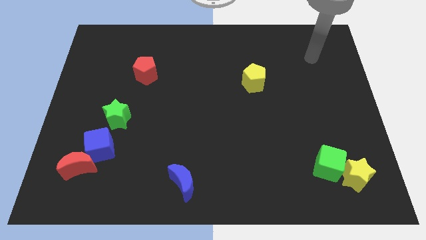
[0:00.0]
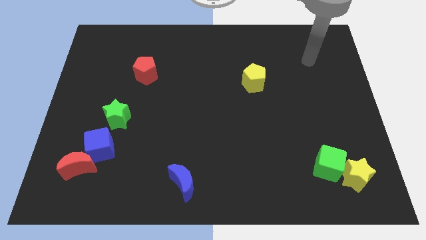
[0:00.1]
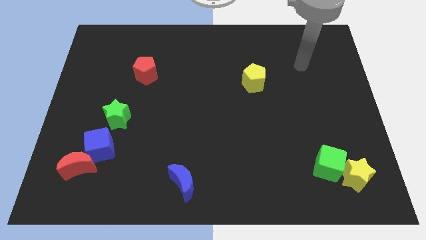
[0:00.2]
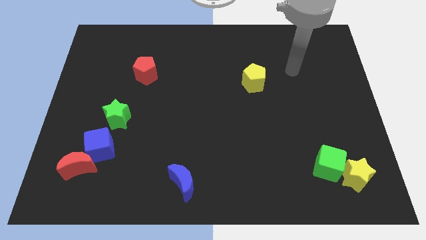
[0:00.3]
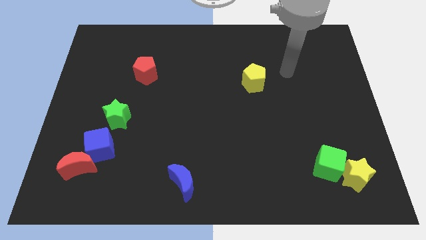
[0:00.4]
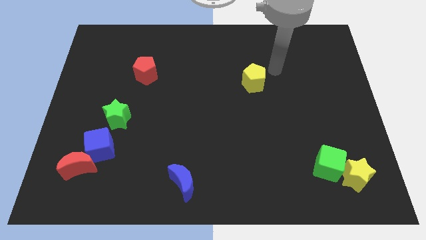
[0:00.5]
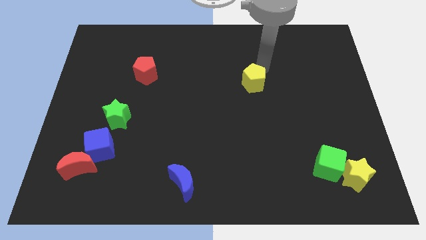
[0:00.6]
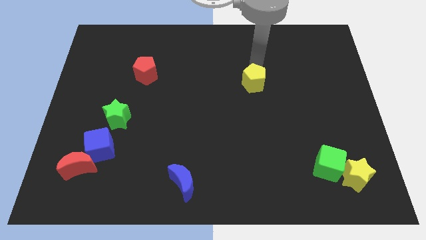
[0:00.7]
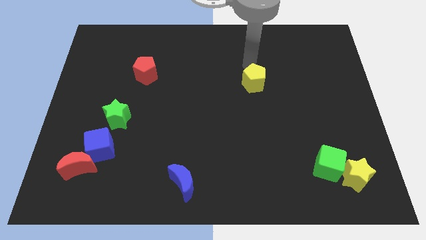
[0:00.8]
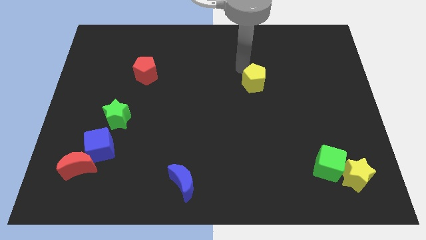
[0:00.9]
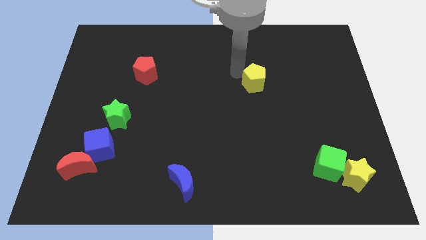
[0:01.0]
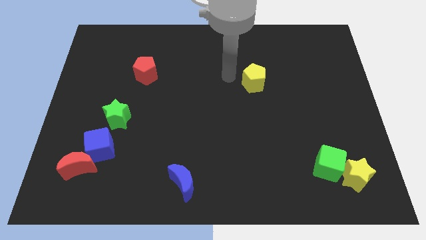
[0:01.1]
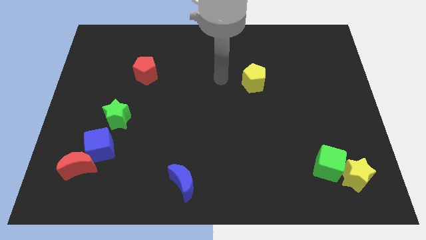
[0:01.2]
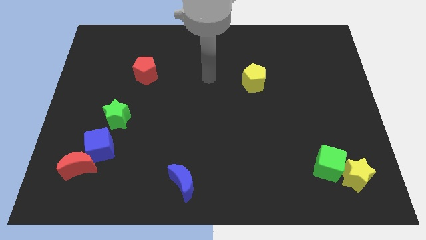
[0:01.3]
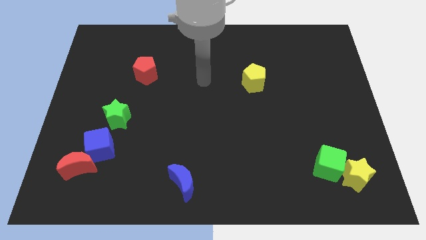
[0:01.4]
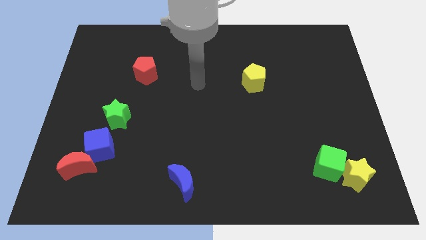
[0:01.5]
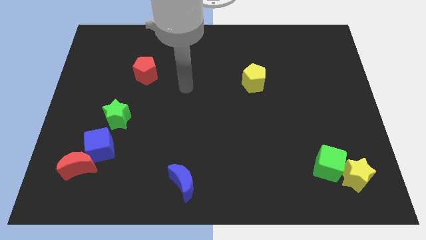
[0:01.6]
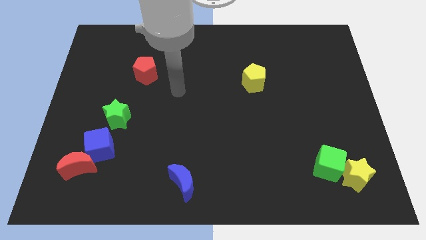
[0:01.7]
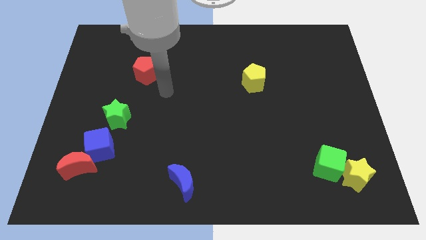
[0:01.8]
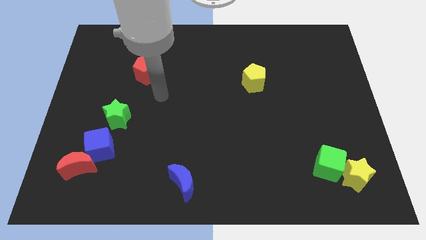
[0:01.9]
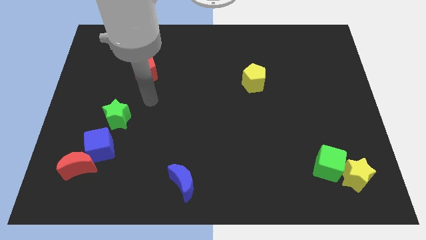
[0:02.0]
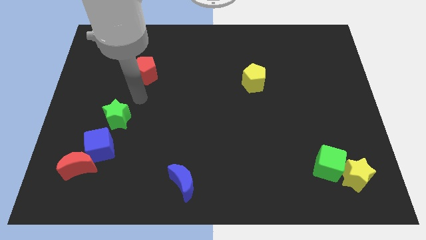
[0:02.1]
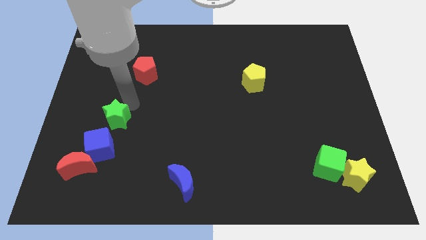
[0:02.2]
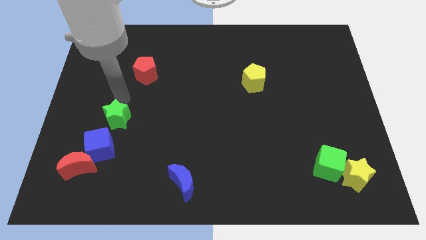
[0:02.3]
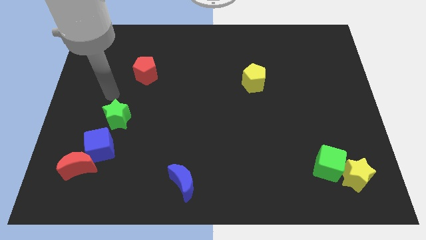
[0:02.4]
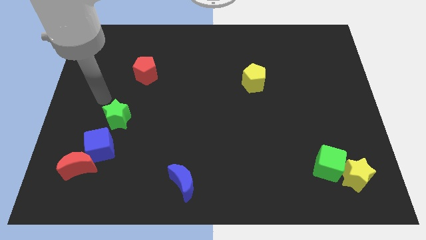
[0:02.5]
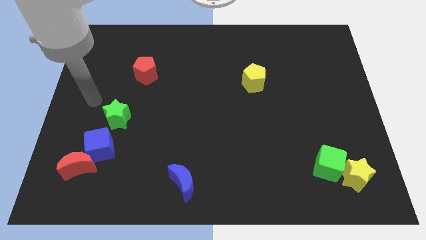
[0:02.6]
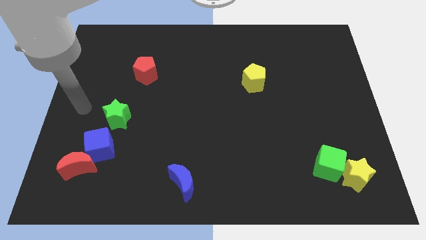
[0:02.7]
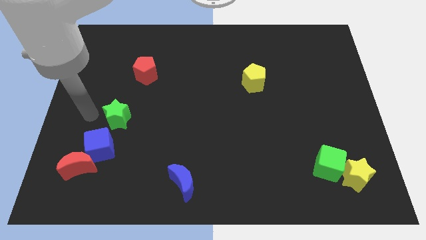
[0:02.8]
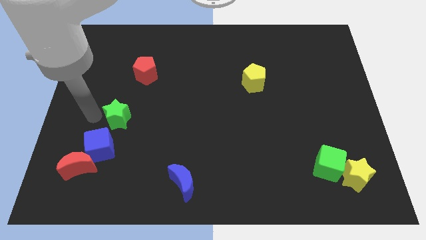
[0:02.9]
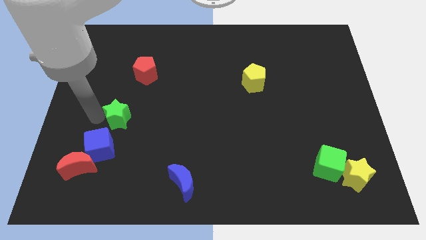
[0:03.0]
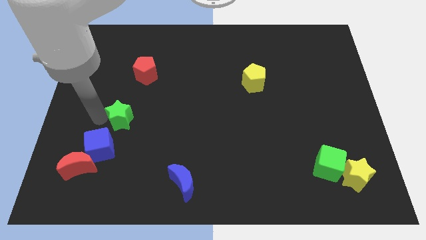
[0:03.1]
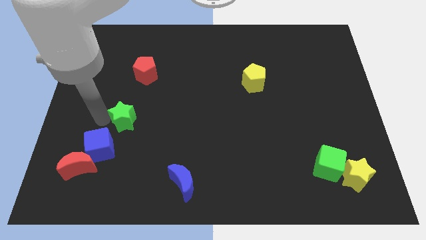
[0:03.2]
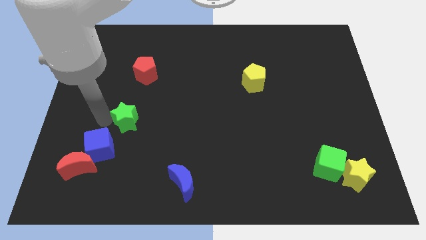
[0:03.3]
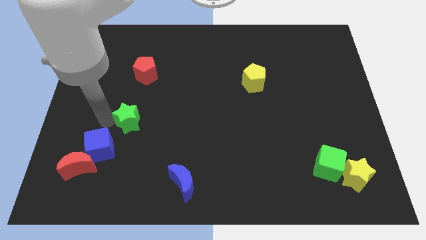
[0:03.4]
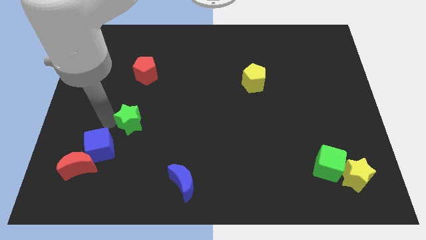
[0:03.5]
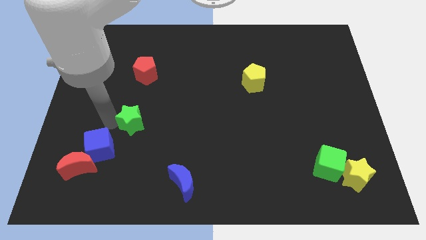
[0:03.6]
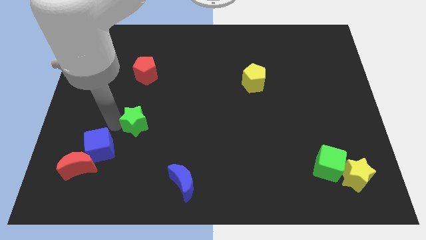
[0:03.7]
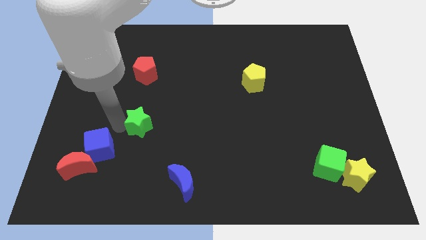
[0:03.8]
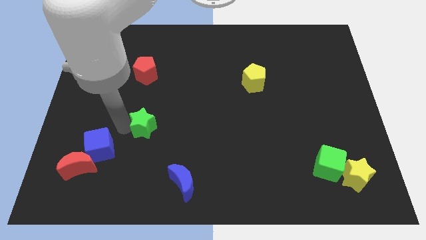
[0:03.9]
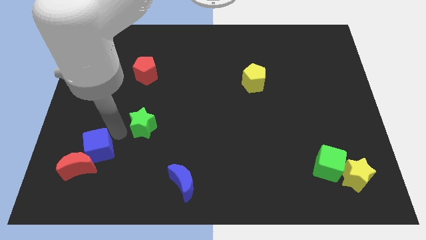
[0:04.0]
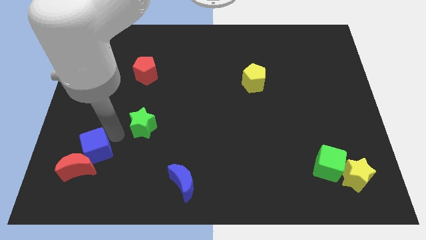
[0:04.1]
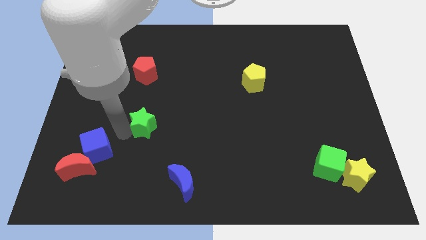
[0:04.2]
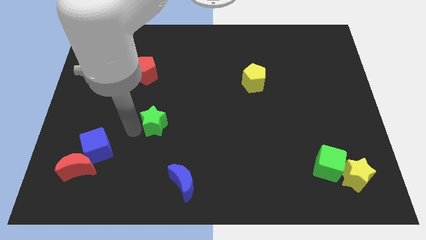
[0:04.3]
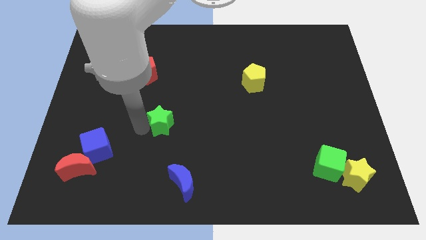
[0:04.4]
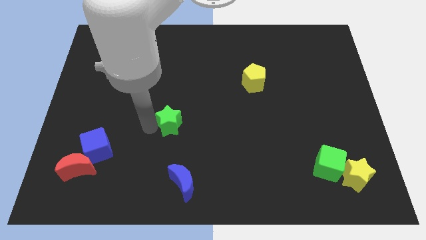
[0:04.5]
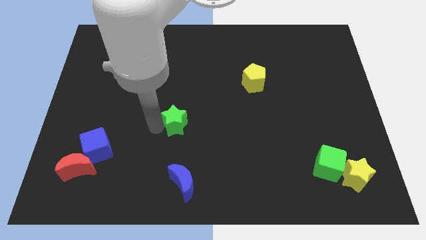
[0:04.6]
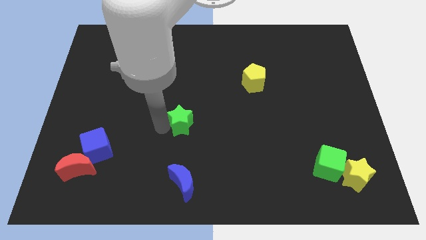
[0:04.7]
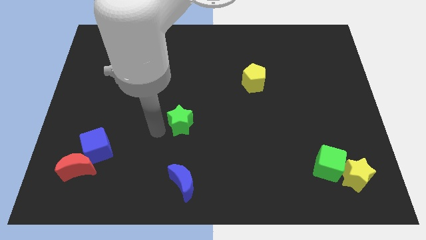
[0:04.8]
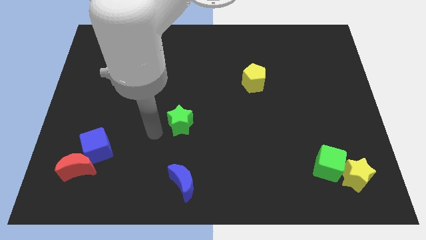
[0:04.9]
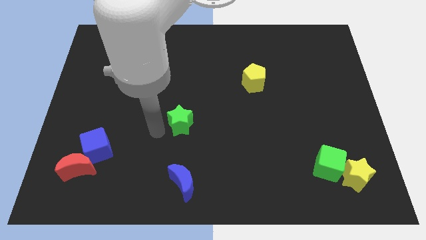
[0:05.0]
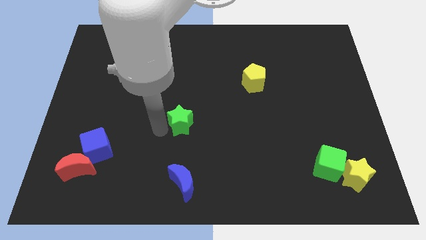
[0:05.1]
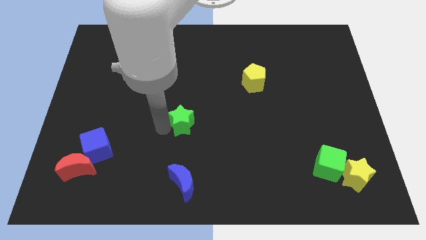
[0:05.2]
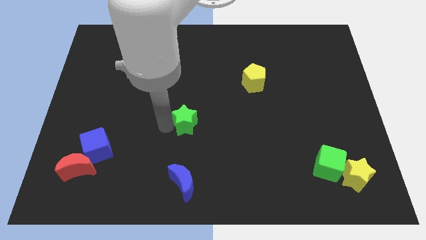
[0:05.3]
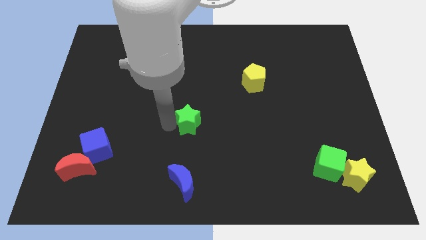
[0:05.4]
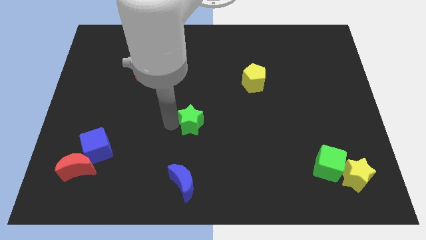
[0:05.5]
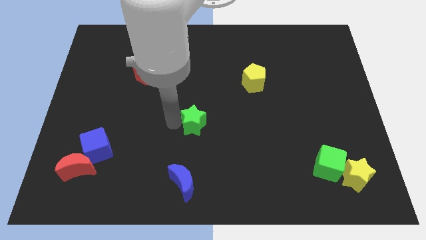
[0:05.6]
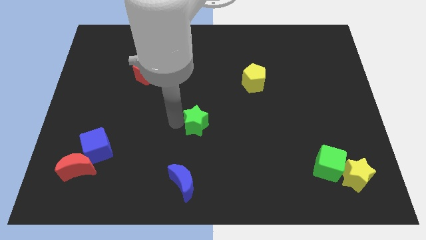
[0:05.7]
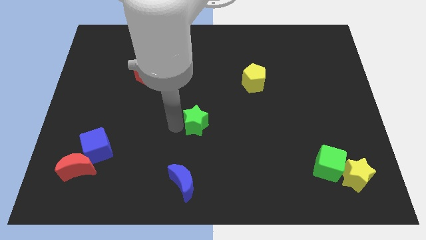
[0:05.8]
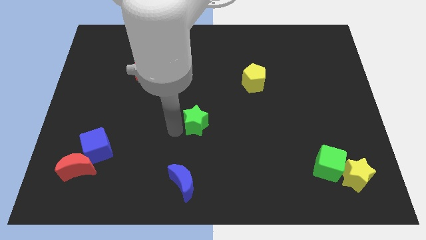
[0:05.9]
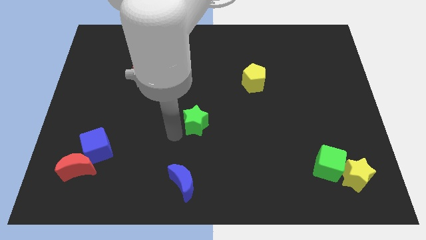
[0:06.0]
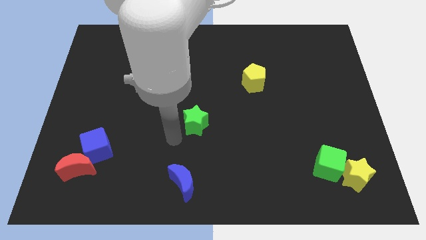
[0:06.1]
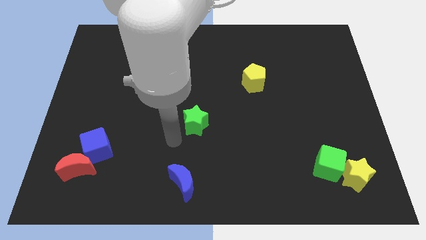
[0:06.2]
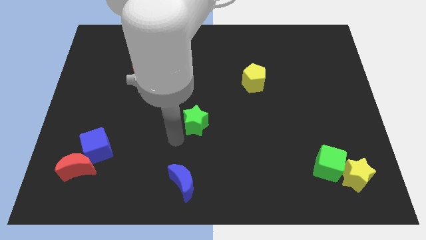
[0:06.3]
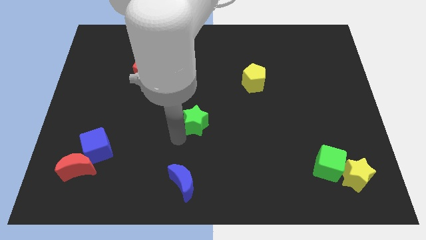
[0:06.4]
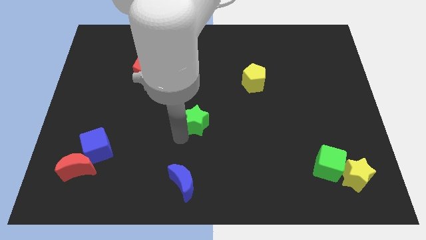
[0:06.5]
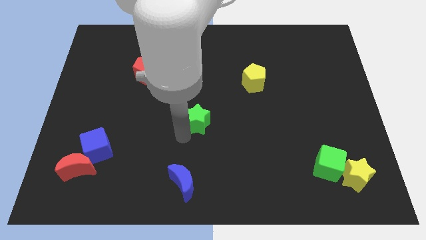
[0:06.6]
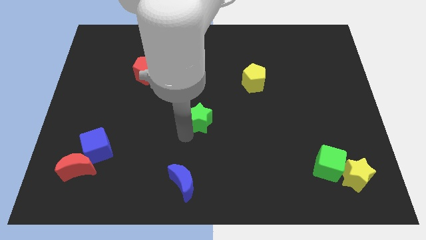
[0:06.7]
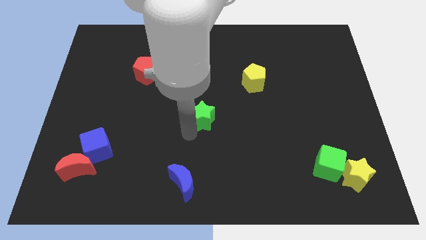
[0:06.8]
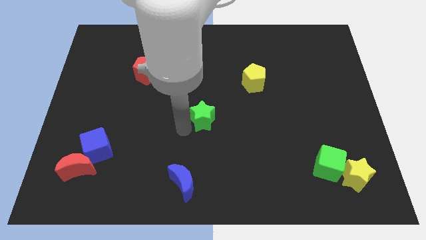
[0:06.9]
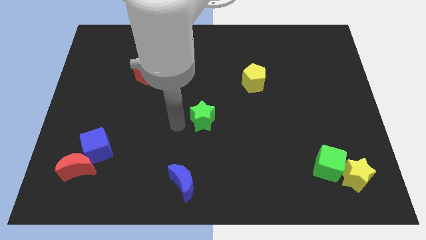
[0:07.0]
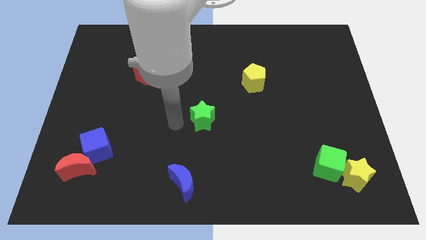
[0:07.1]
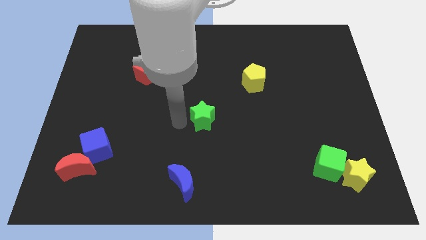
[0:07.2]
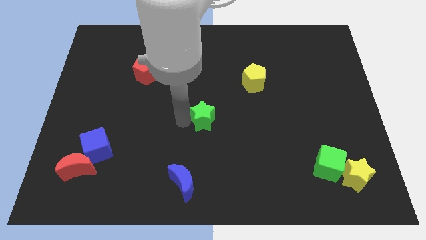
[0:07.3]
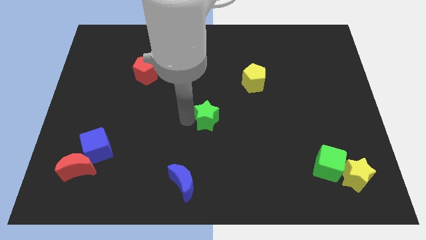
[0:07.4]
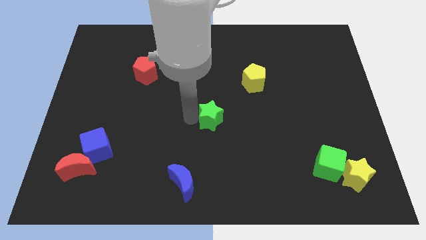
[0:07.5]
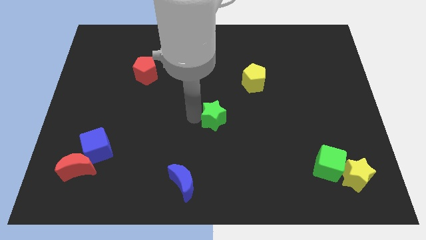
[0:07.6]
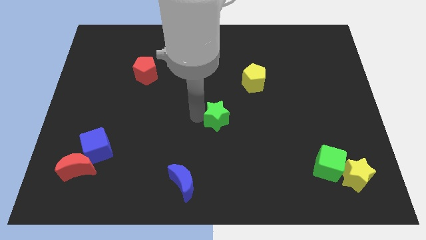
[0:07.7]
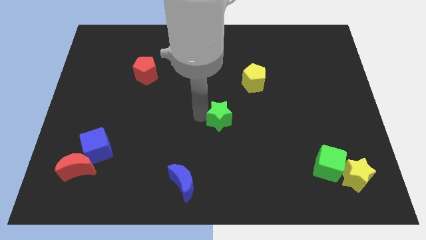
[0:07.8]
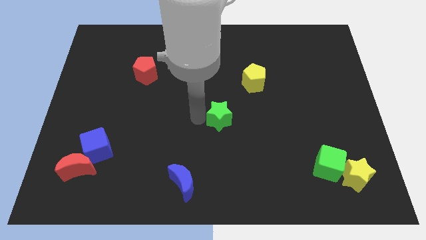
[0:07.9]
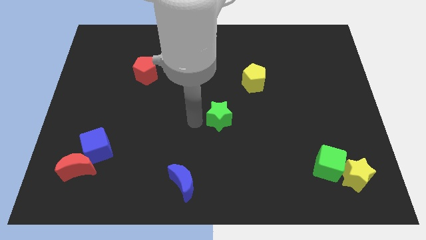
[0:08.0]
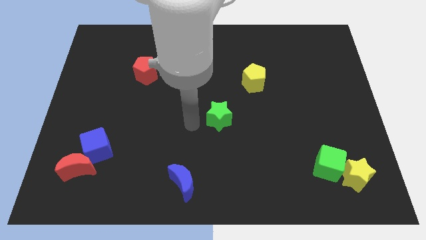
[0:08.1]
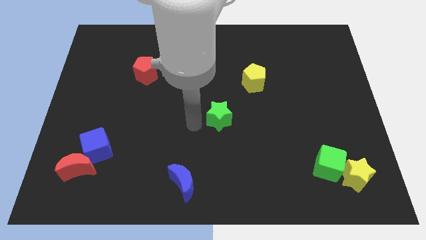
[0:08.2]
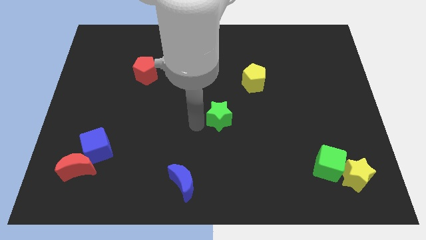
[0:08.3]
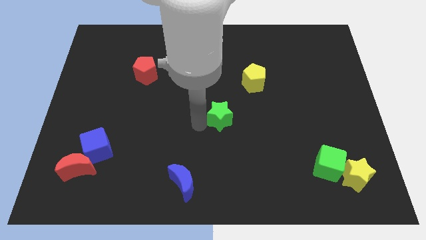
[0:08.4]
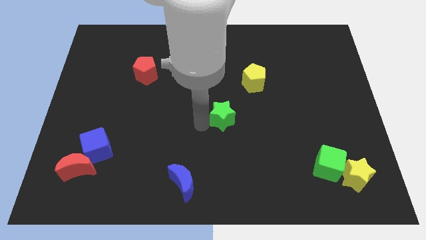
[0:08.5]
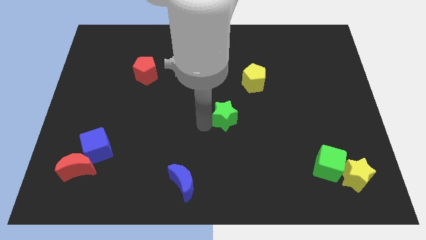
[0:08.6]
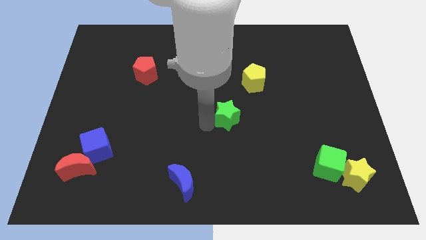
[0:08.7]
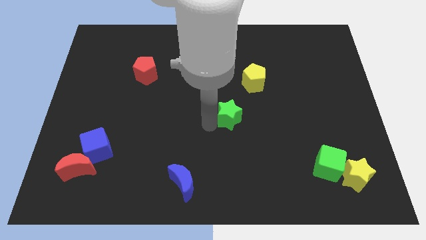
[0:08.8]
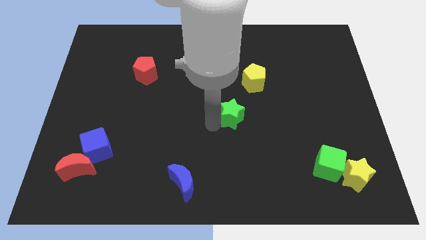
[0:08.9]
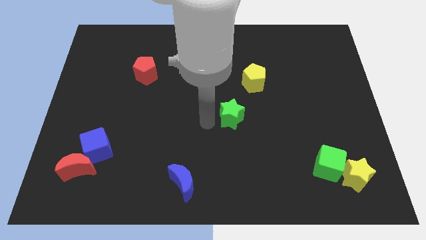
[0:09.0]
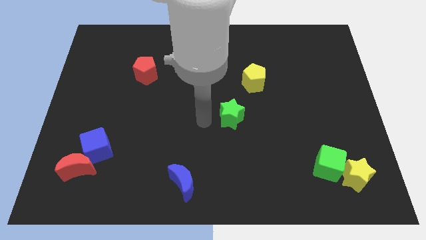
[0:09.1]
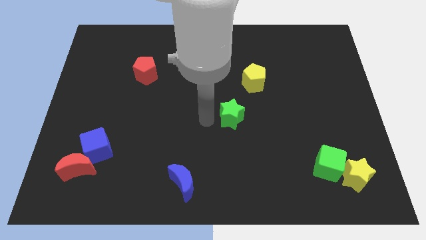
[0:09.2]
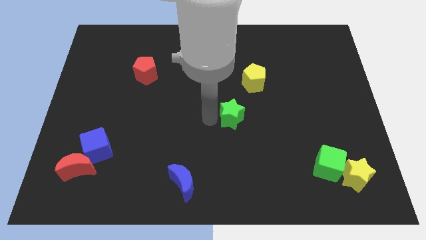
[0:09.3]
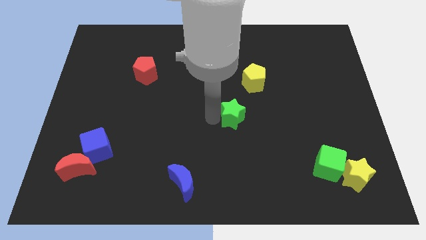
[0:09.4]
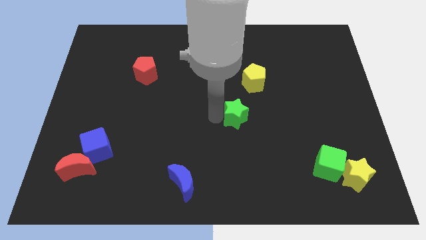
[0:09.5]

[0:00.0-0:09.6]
push the green star below the yellow pentagon
